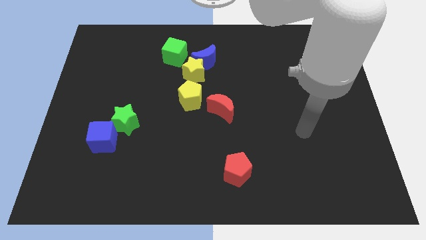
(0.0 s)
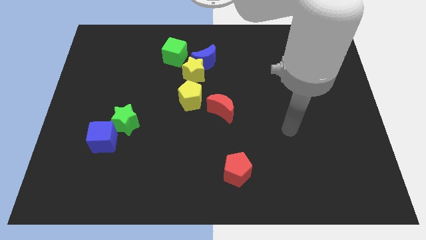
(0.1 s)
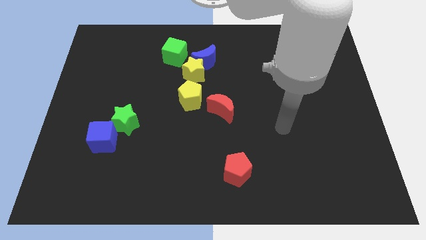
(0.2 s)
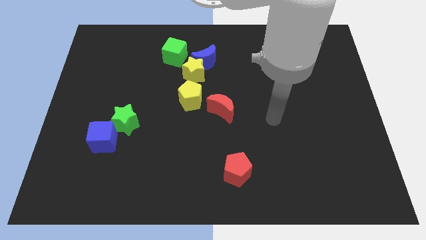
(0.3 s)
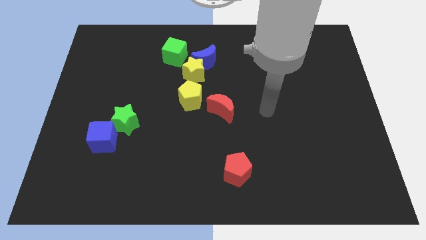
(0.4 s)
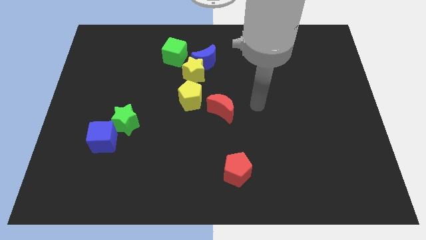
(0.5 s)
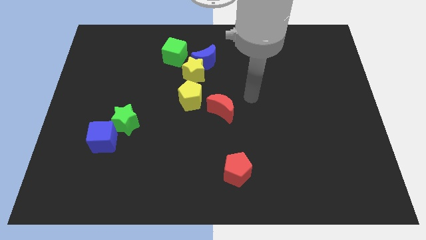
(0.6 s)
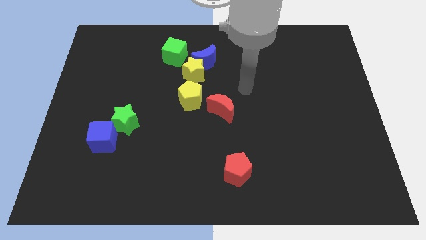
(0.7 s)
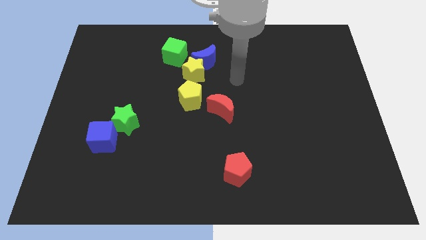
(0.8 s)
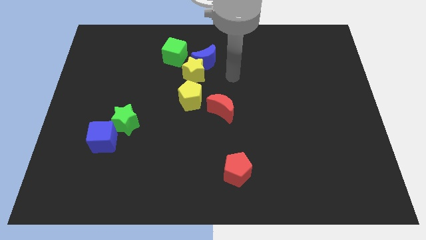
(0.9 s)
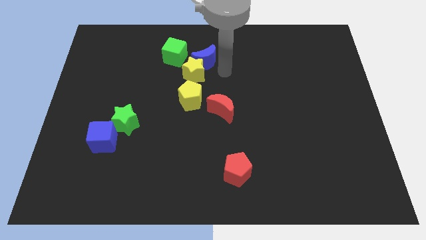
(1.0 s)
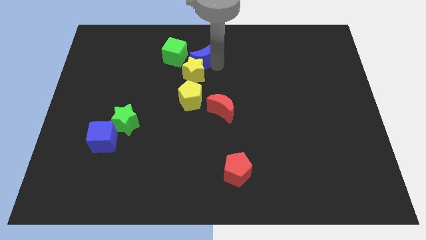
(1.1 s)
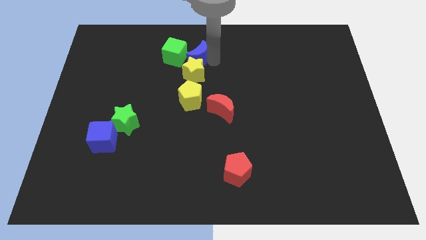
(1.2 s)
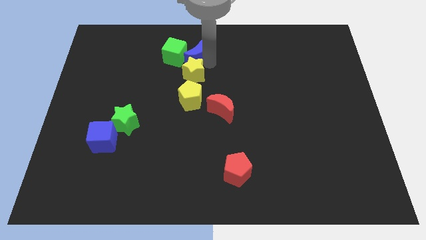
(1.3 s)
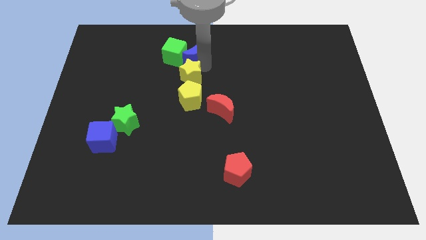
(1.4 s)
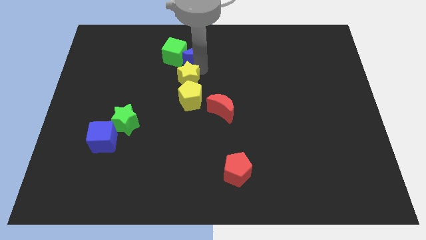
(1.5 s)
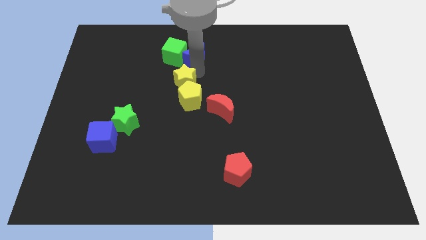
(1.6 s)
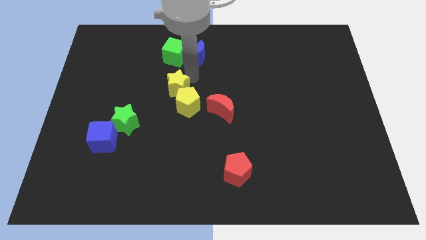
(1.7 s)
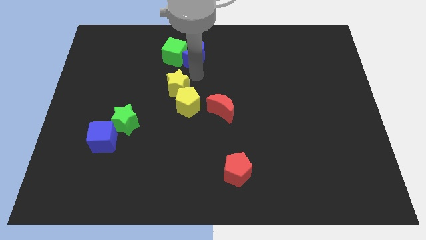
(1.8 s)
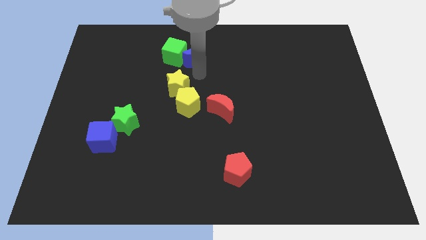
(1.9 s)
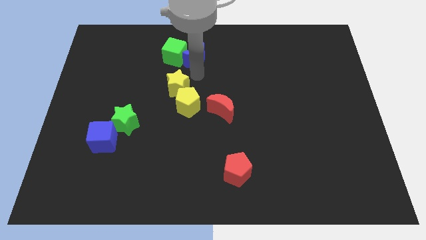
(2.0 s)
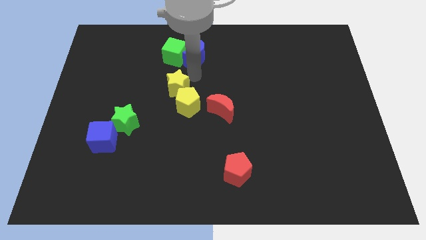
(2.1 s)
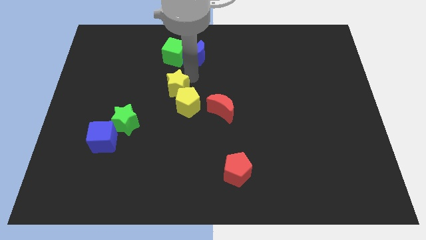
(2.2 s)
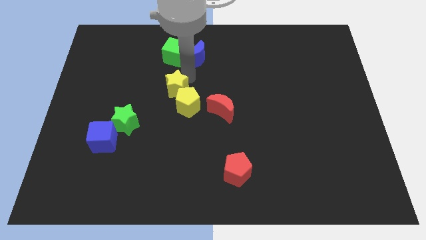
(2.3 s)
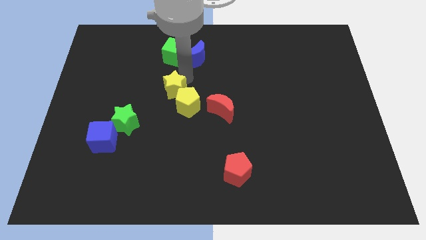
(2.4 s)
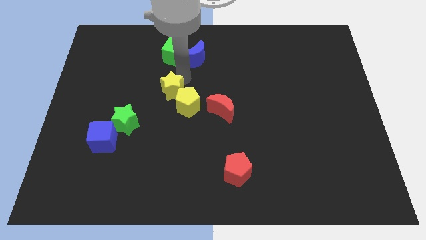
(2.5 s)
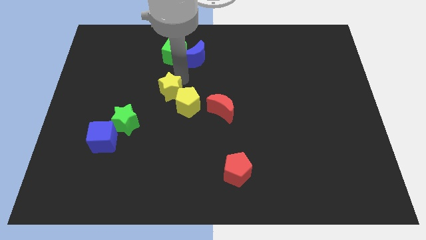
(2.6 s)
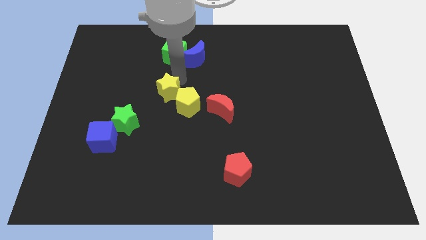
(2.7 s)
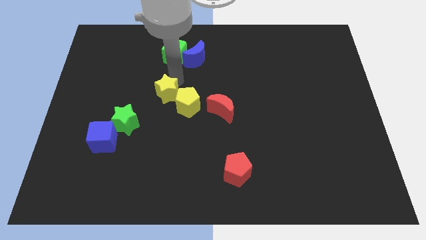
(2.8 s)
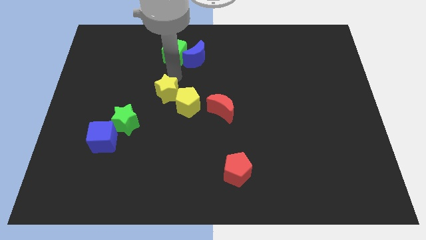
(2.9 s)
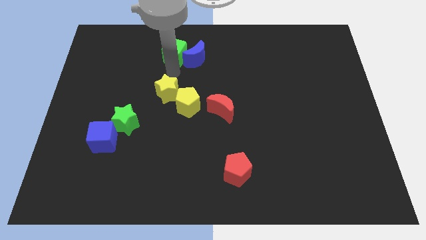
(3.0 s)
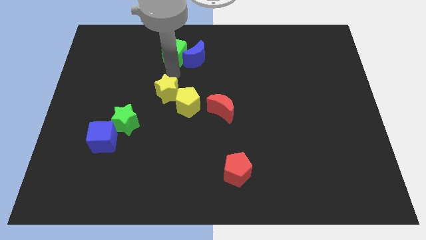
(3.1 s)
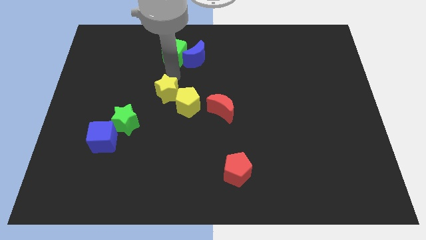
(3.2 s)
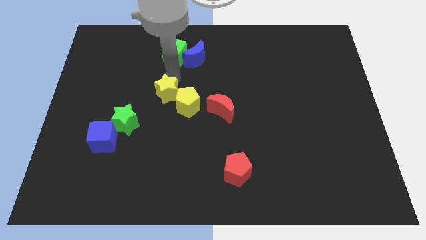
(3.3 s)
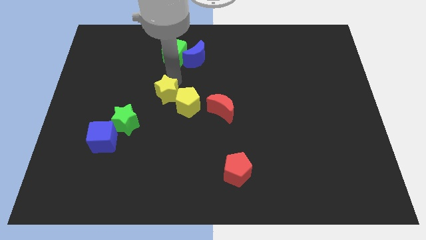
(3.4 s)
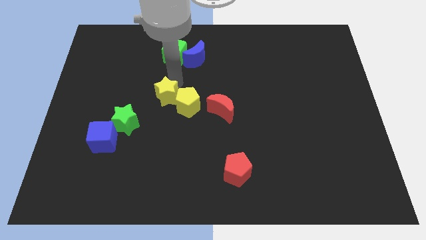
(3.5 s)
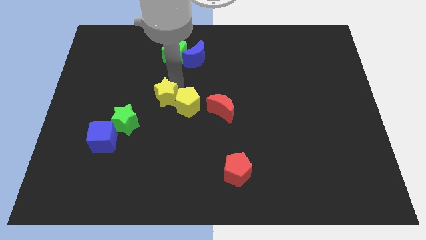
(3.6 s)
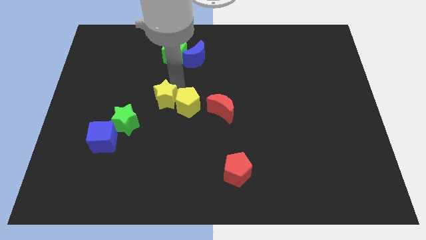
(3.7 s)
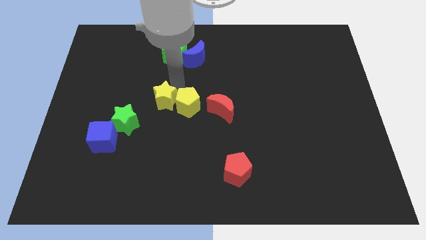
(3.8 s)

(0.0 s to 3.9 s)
slightly move the yellow star down

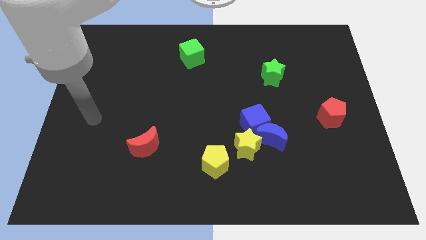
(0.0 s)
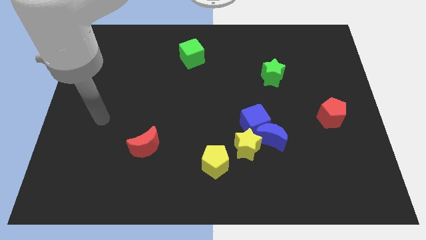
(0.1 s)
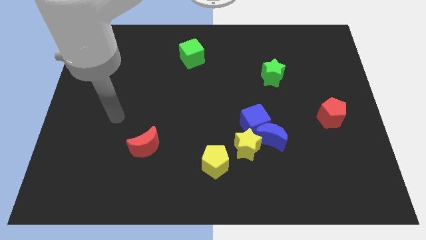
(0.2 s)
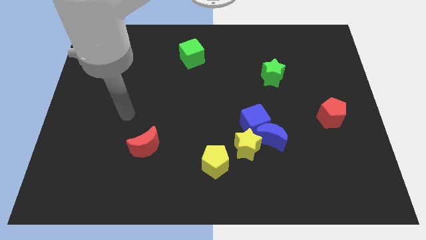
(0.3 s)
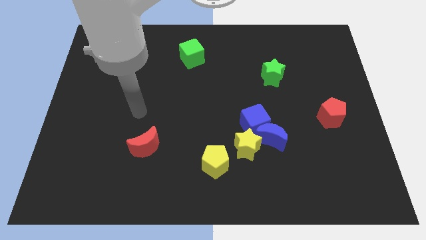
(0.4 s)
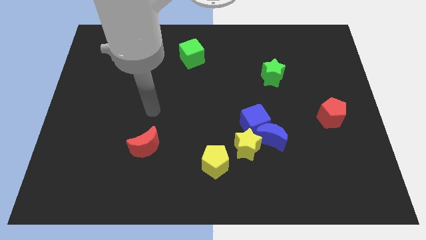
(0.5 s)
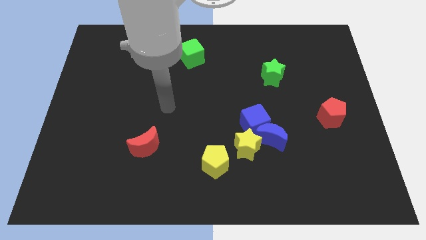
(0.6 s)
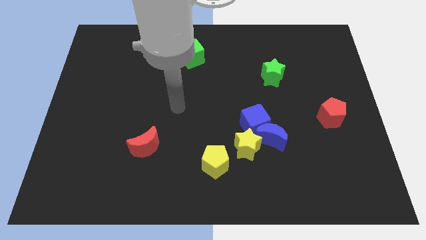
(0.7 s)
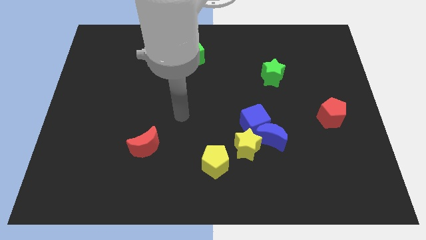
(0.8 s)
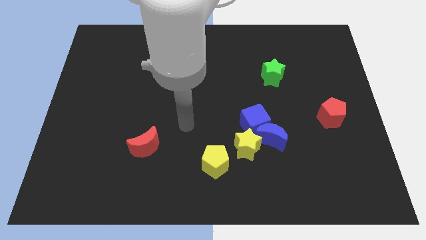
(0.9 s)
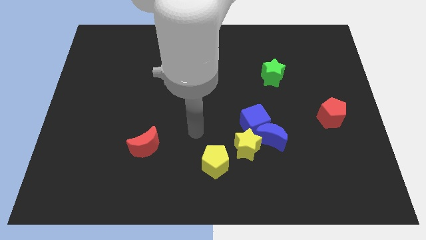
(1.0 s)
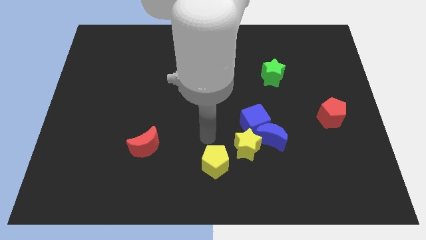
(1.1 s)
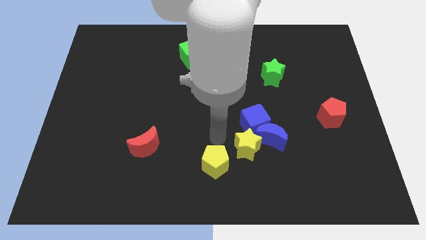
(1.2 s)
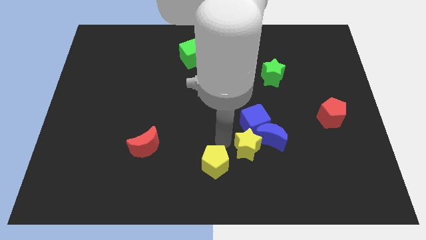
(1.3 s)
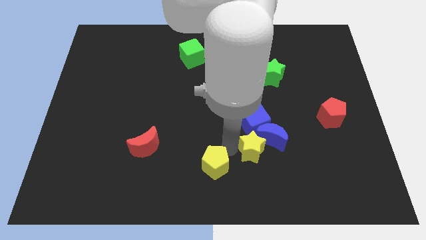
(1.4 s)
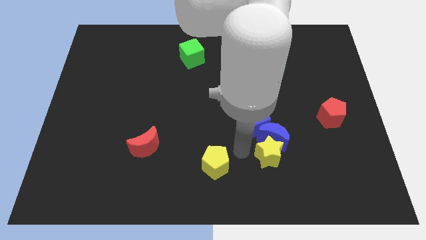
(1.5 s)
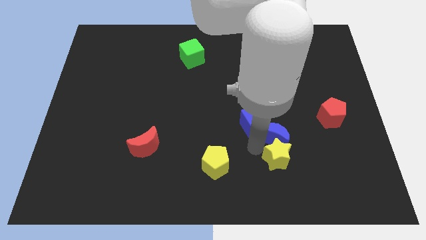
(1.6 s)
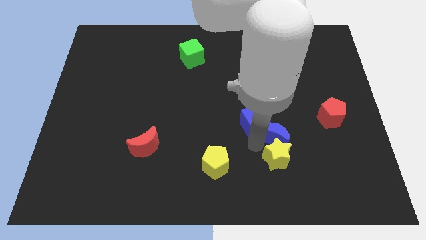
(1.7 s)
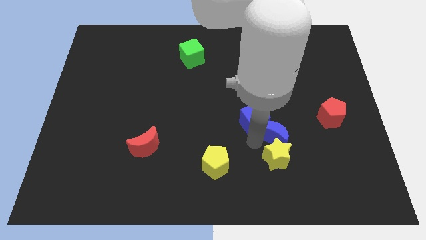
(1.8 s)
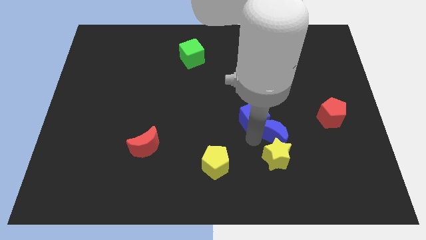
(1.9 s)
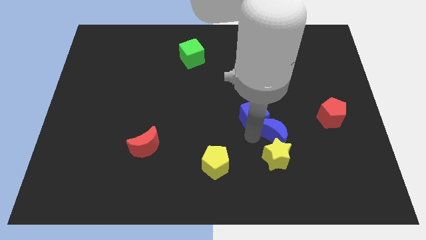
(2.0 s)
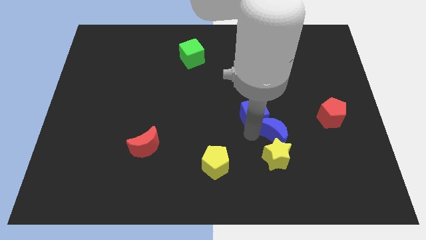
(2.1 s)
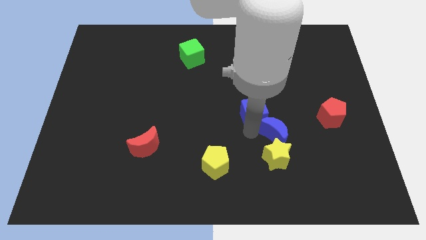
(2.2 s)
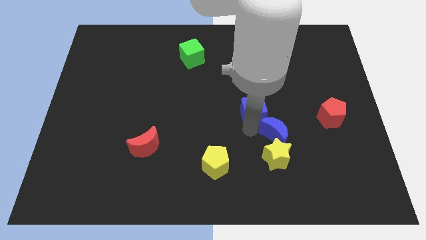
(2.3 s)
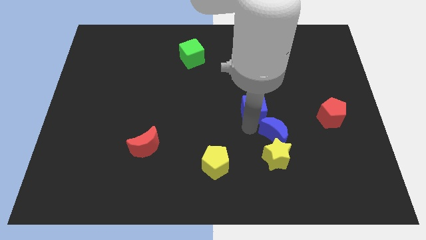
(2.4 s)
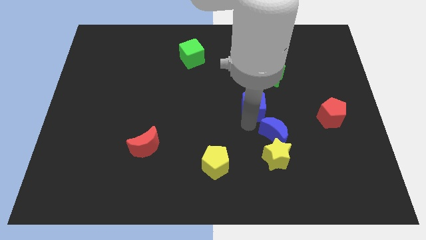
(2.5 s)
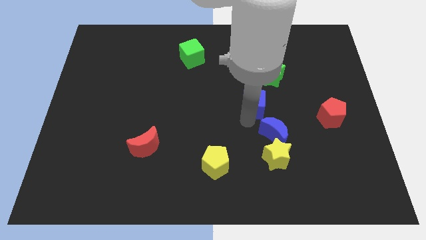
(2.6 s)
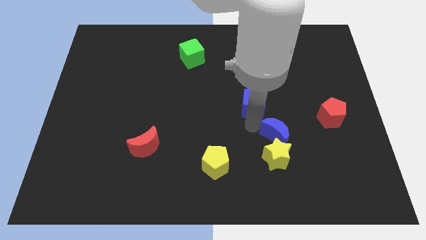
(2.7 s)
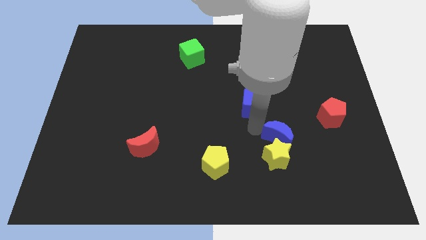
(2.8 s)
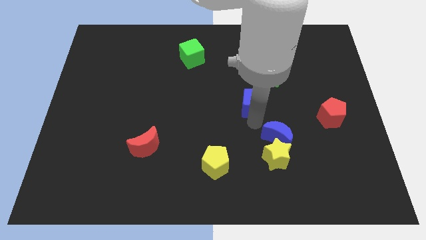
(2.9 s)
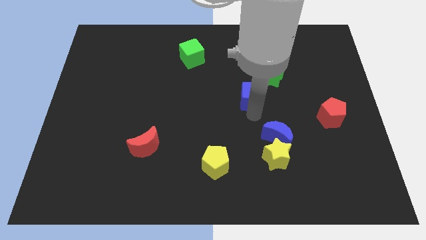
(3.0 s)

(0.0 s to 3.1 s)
move the blue cube somewhat up

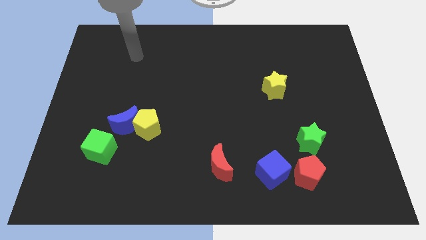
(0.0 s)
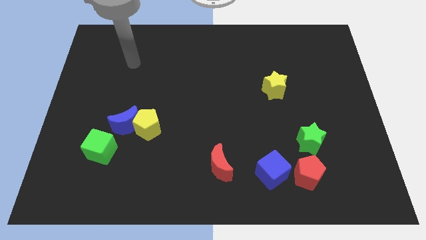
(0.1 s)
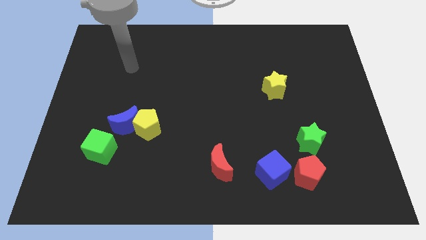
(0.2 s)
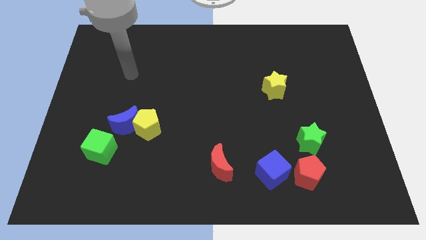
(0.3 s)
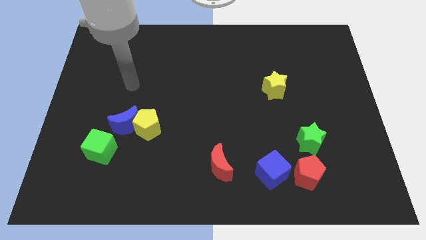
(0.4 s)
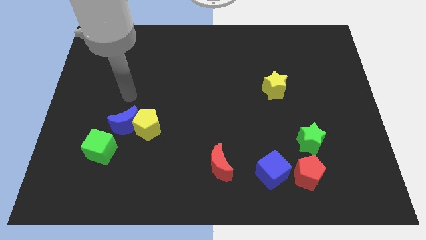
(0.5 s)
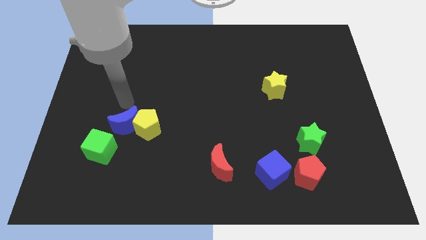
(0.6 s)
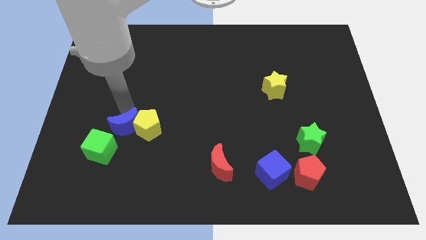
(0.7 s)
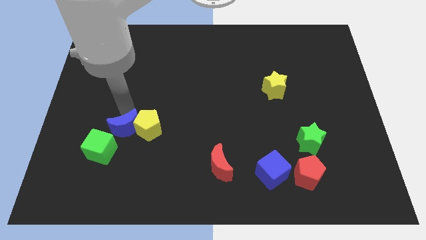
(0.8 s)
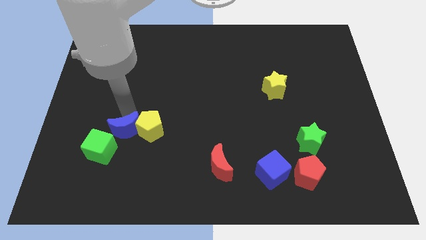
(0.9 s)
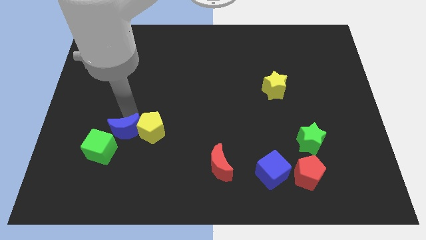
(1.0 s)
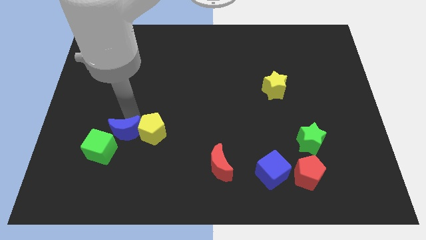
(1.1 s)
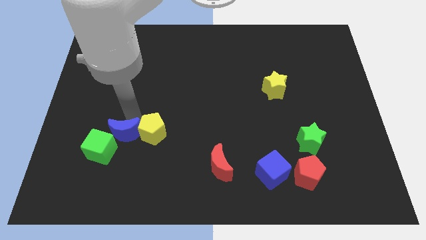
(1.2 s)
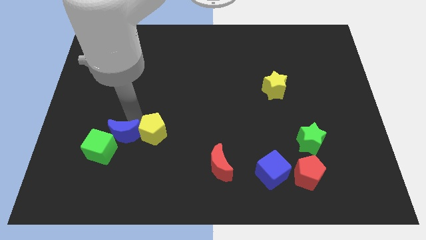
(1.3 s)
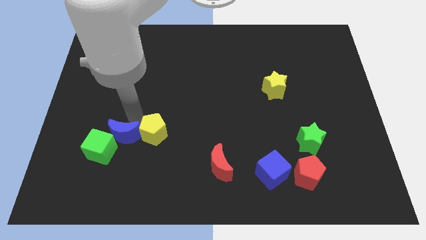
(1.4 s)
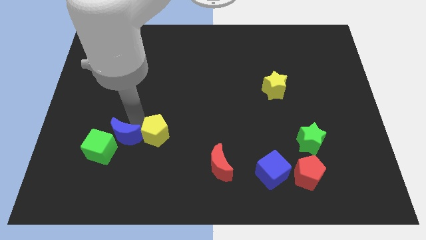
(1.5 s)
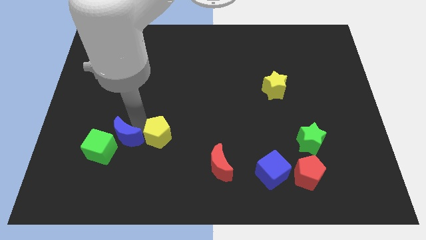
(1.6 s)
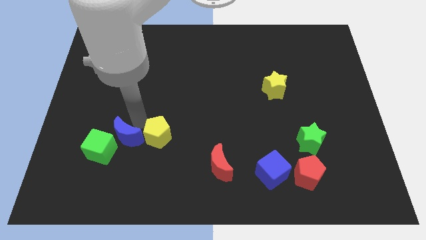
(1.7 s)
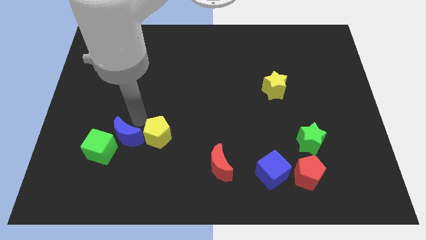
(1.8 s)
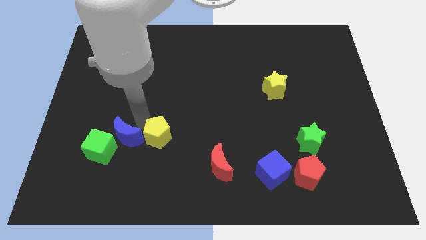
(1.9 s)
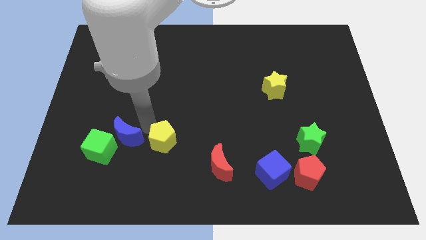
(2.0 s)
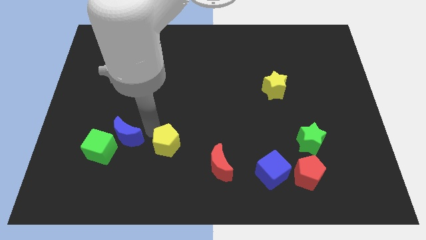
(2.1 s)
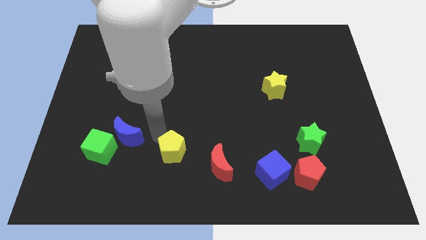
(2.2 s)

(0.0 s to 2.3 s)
slightly move the yellow pentagon downwards and then right
